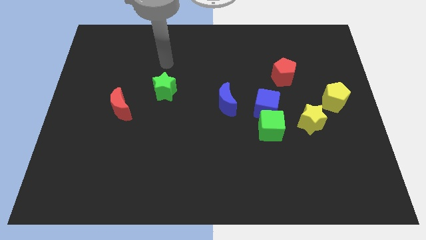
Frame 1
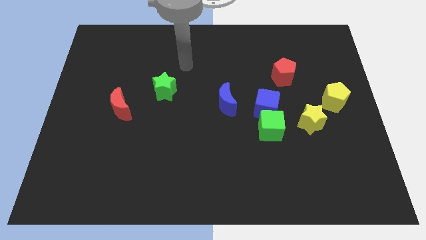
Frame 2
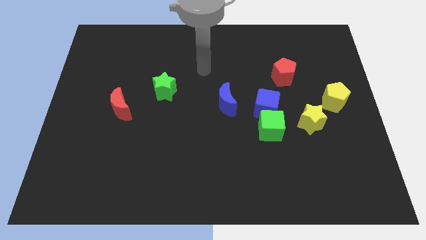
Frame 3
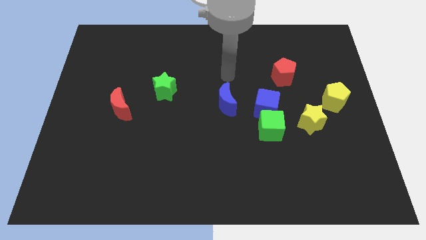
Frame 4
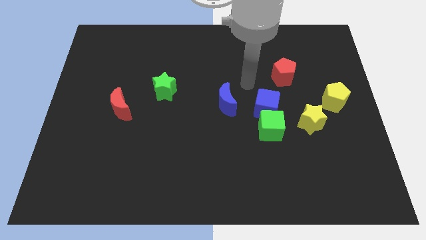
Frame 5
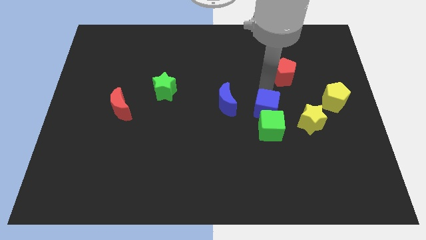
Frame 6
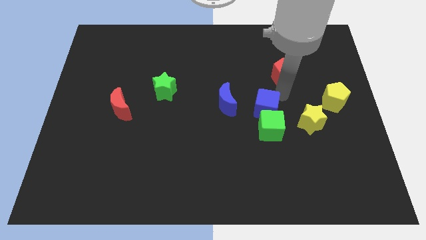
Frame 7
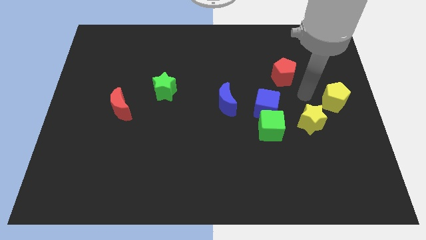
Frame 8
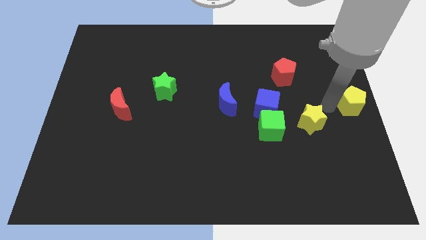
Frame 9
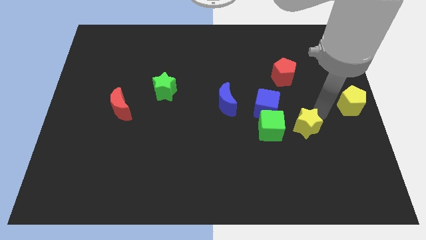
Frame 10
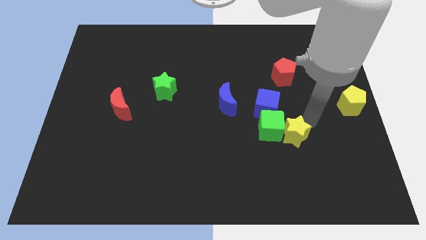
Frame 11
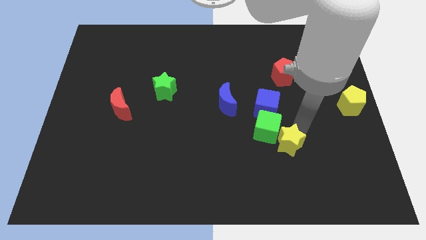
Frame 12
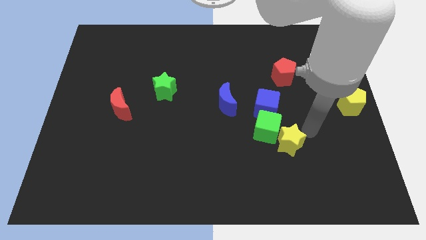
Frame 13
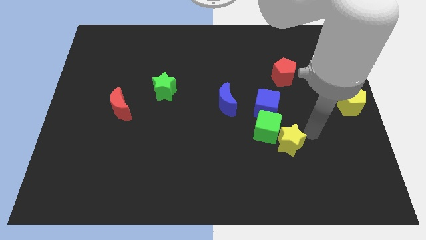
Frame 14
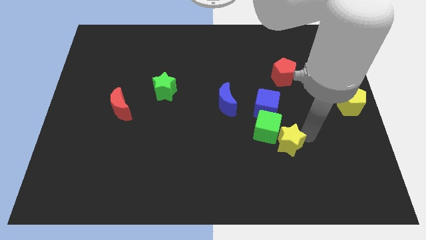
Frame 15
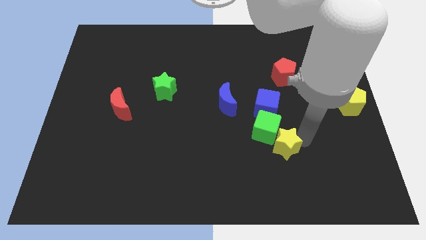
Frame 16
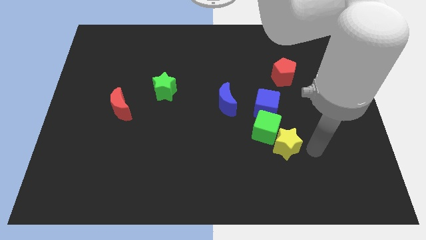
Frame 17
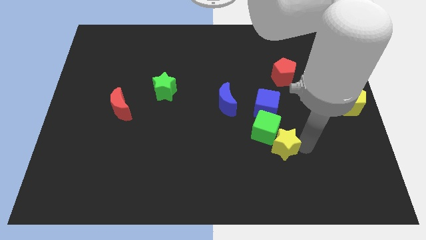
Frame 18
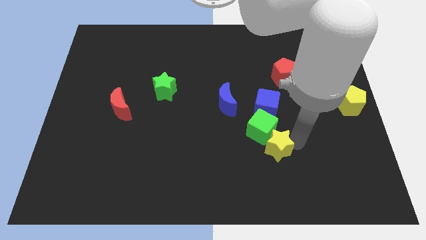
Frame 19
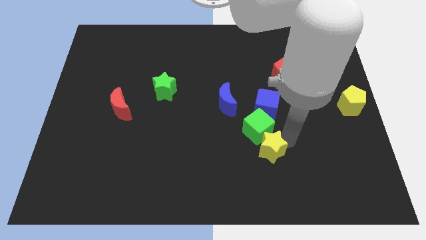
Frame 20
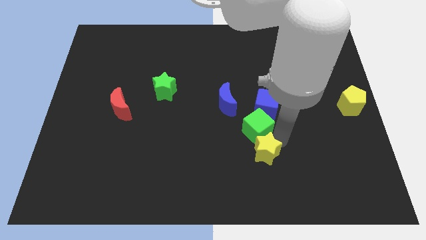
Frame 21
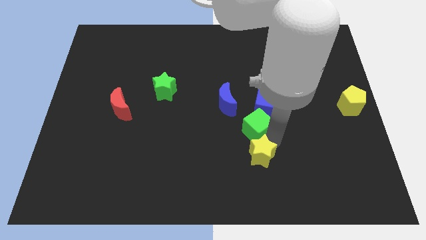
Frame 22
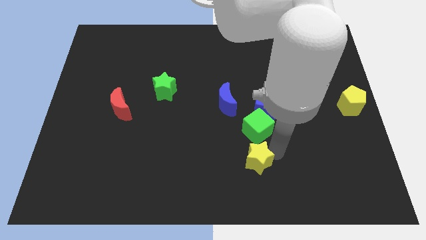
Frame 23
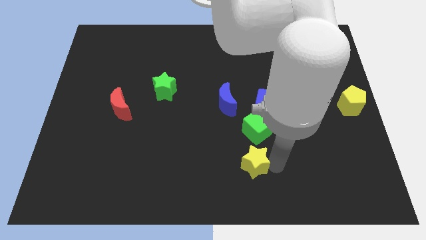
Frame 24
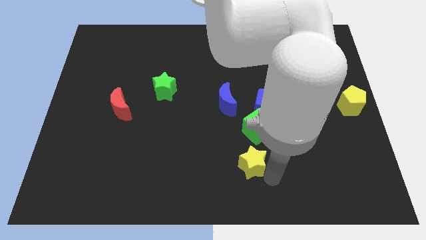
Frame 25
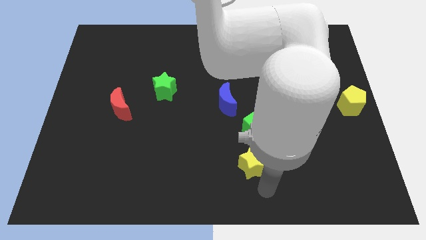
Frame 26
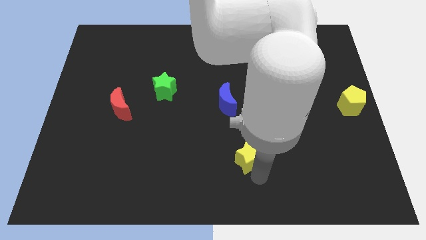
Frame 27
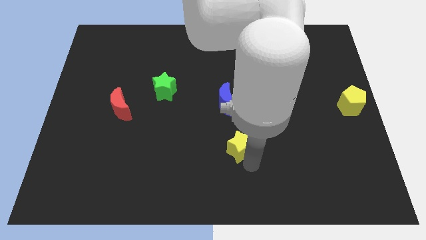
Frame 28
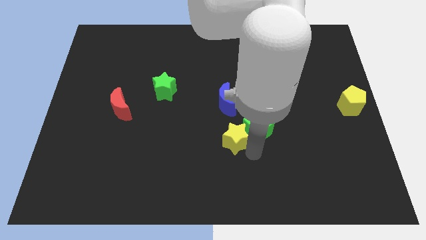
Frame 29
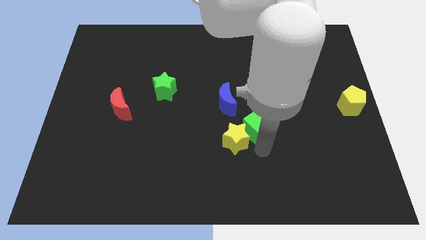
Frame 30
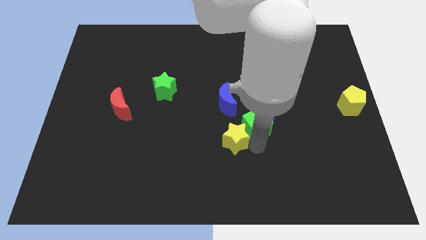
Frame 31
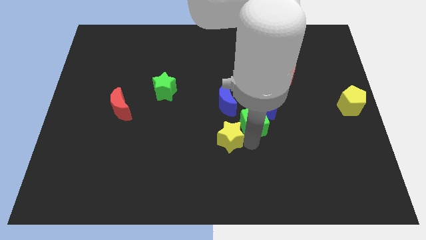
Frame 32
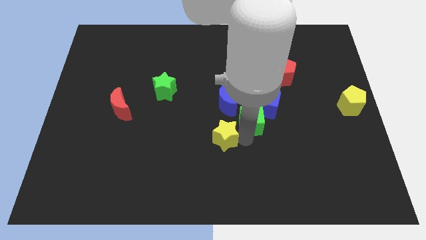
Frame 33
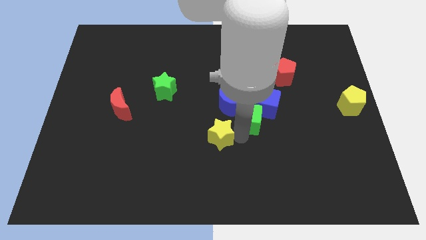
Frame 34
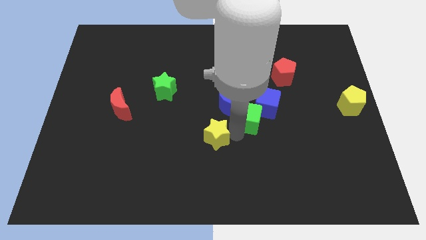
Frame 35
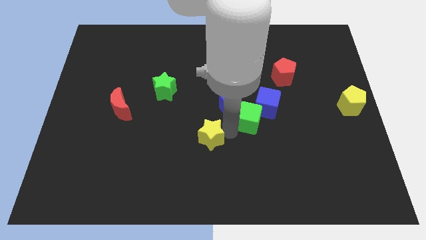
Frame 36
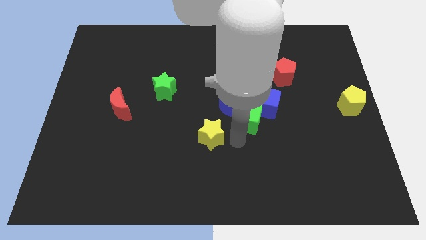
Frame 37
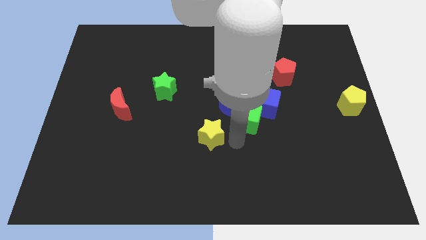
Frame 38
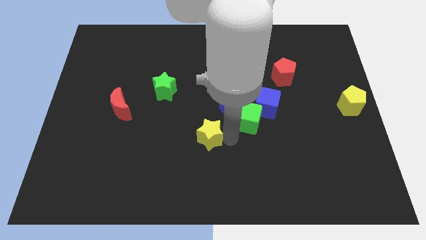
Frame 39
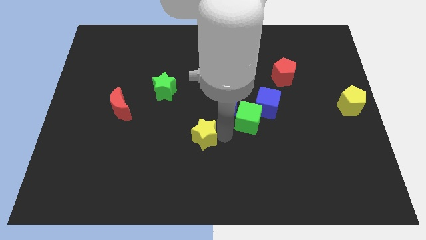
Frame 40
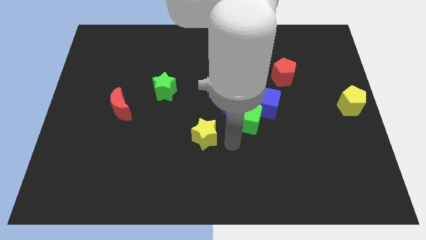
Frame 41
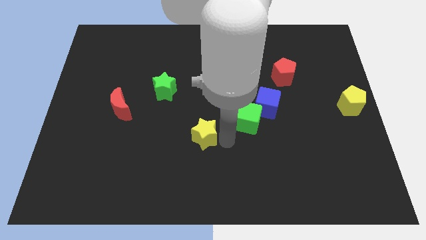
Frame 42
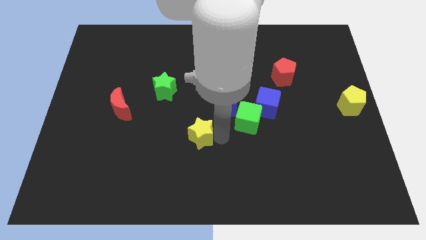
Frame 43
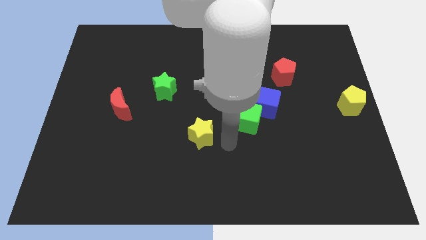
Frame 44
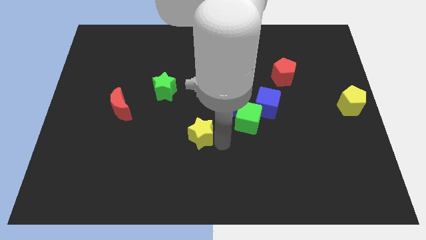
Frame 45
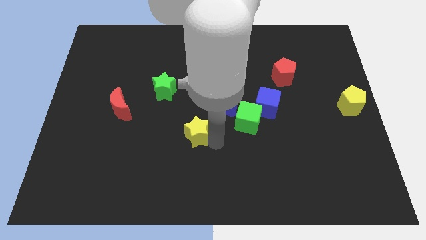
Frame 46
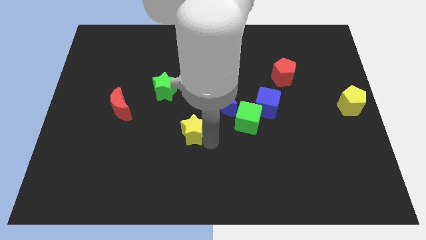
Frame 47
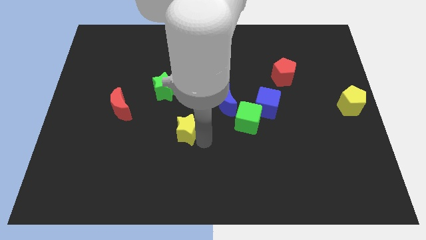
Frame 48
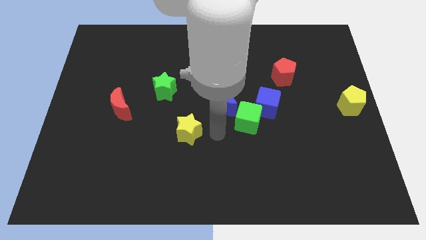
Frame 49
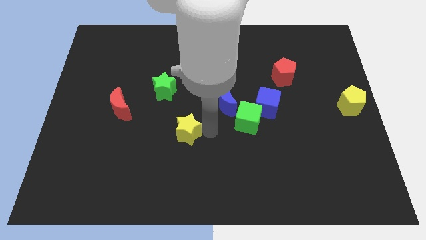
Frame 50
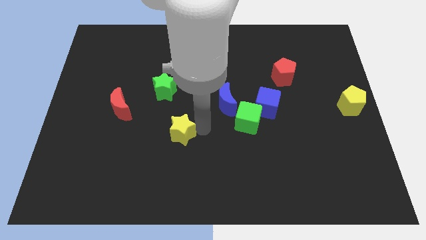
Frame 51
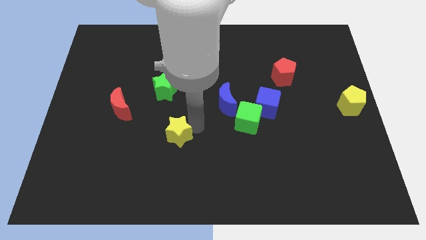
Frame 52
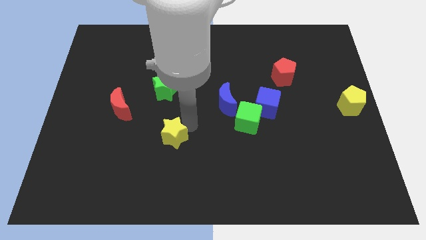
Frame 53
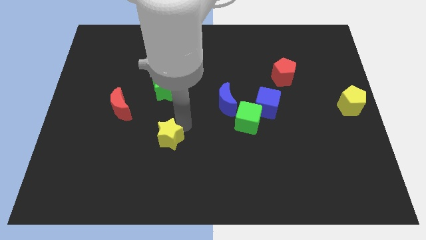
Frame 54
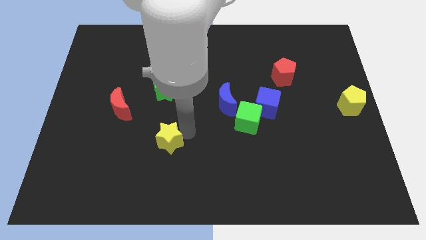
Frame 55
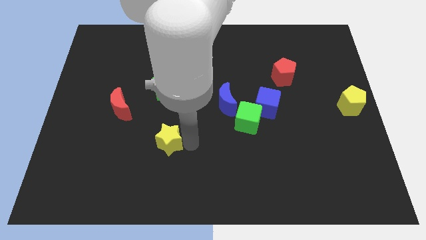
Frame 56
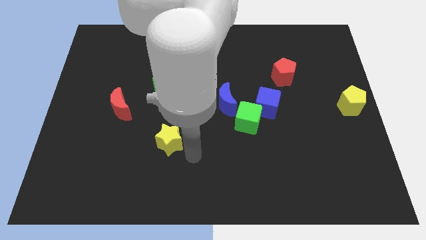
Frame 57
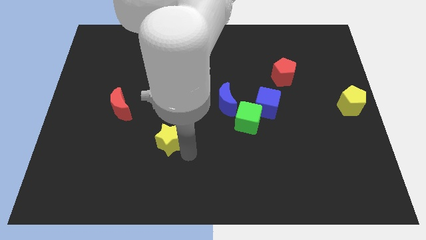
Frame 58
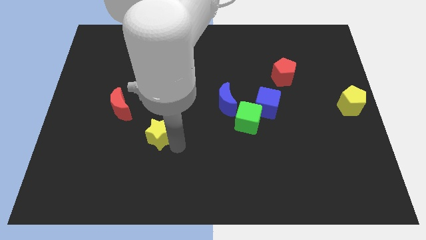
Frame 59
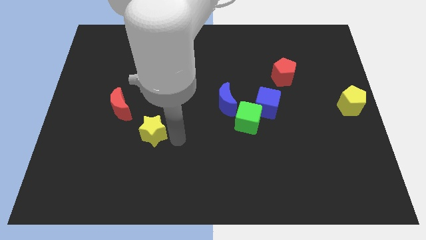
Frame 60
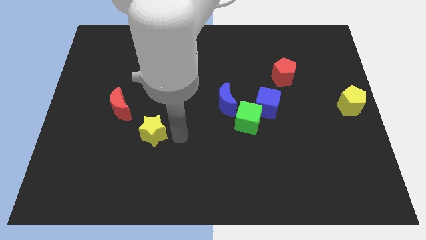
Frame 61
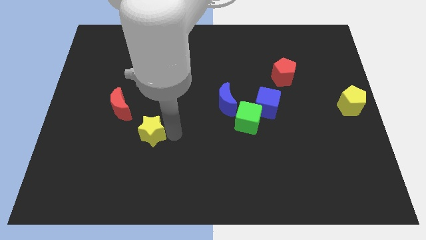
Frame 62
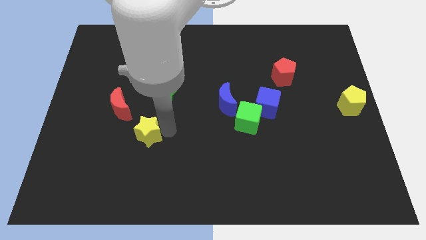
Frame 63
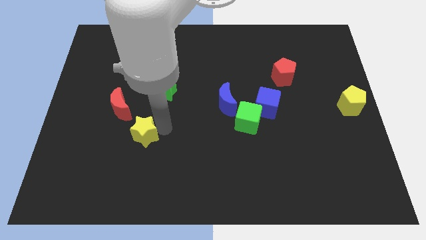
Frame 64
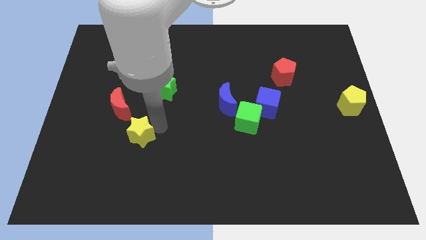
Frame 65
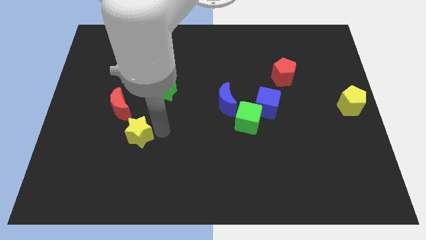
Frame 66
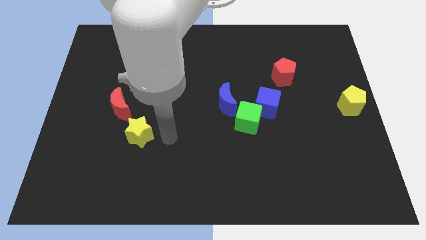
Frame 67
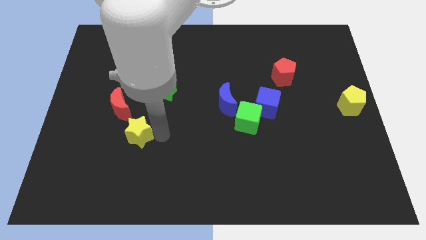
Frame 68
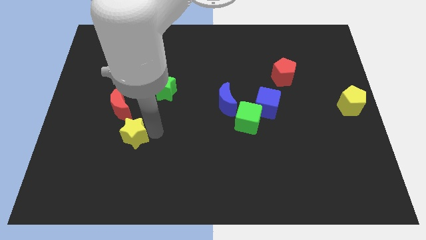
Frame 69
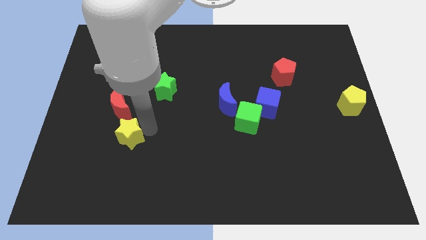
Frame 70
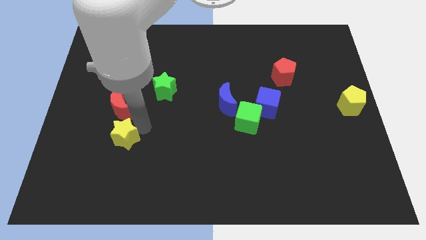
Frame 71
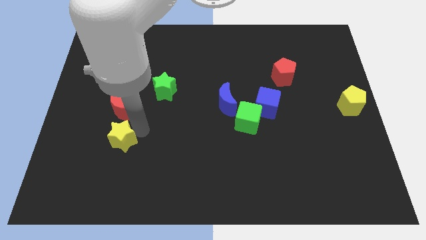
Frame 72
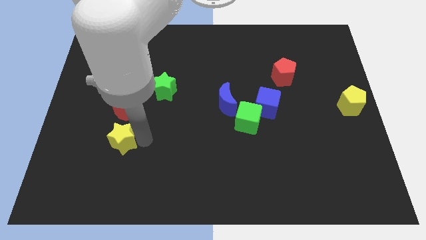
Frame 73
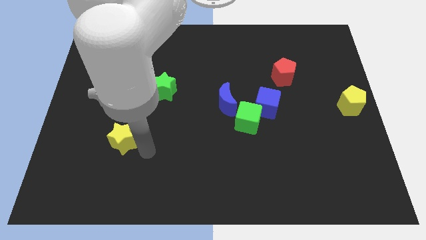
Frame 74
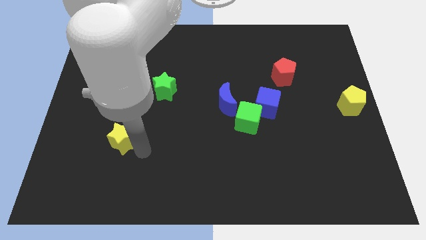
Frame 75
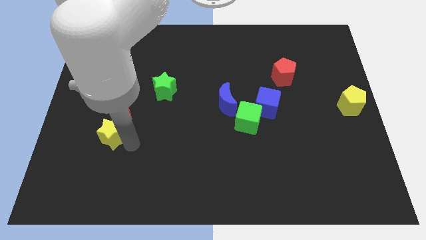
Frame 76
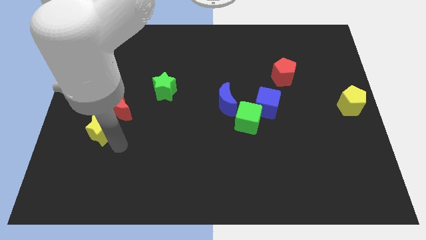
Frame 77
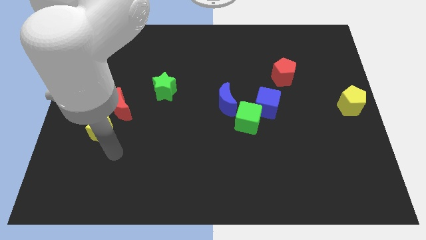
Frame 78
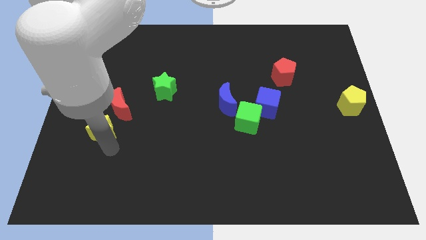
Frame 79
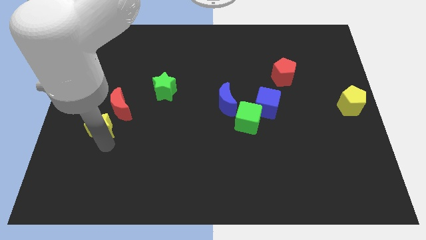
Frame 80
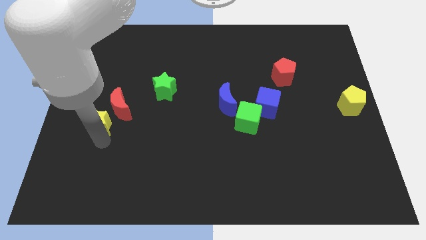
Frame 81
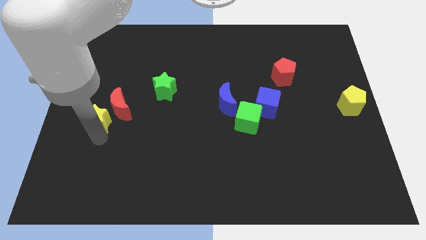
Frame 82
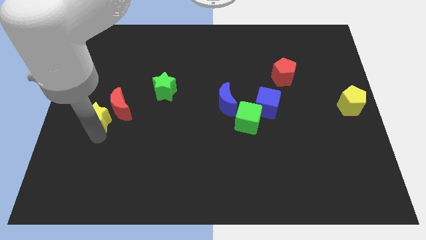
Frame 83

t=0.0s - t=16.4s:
move the yellow star to the left side
